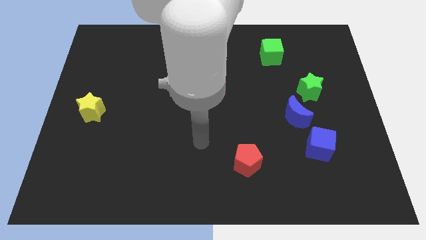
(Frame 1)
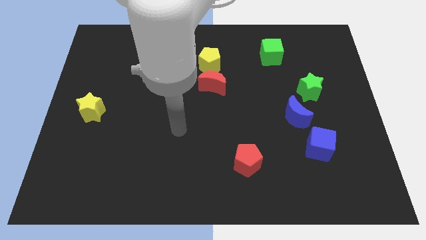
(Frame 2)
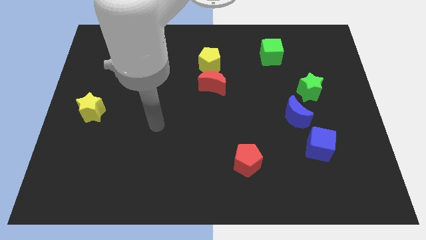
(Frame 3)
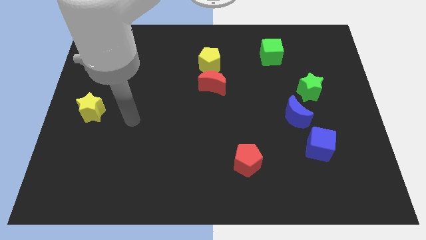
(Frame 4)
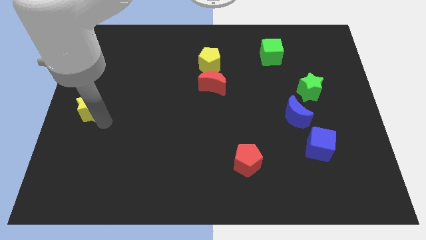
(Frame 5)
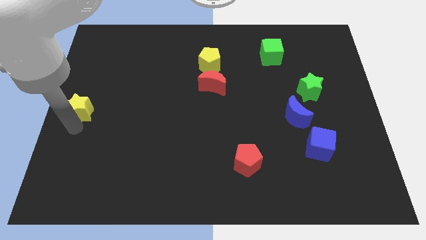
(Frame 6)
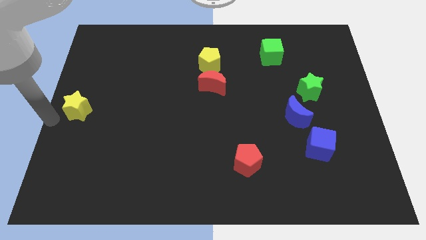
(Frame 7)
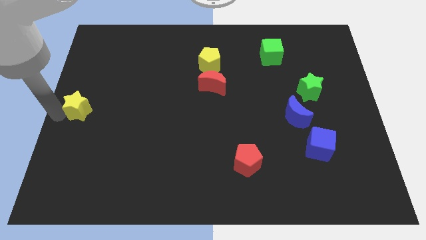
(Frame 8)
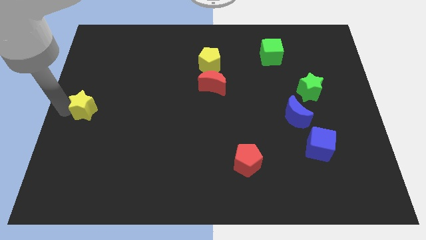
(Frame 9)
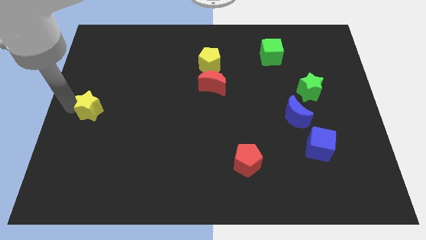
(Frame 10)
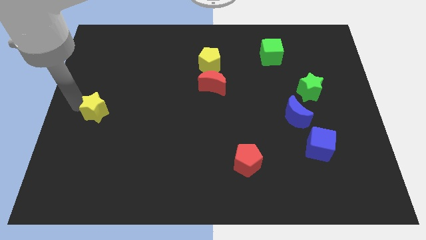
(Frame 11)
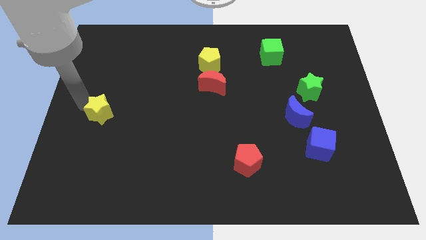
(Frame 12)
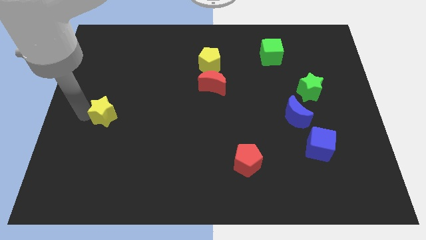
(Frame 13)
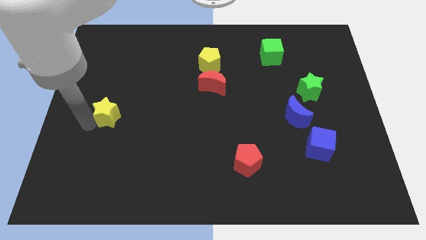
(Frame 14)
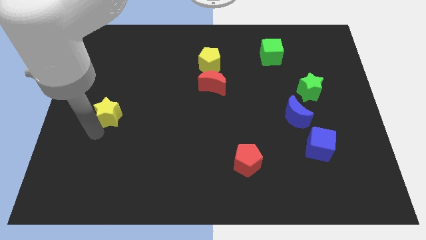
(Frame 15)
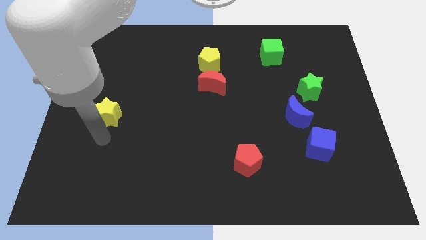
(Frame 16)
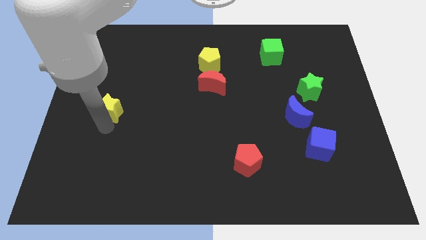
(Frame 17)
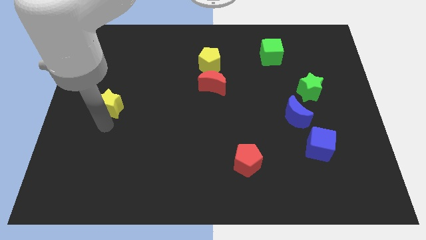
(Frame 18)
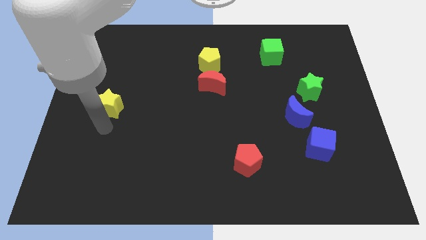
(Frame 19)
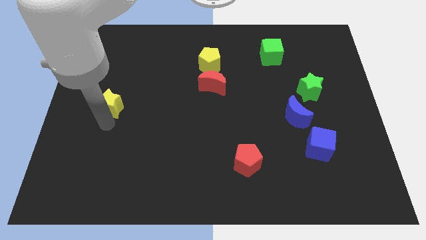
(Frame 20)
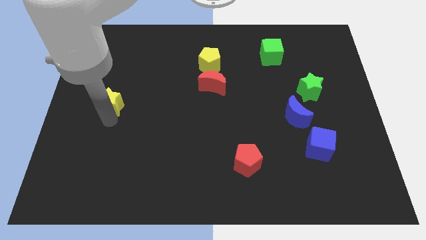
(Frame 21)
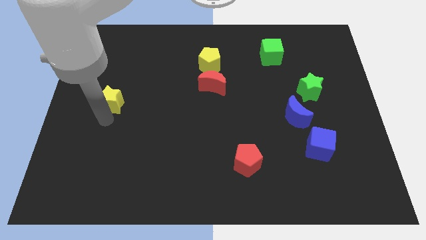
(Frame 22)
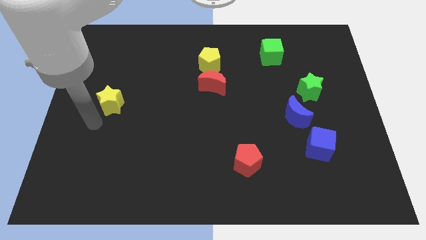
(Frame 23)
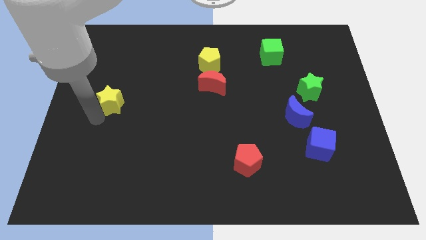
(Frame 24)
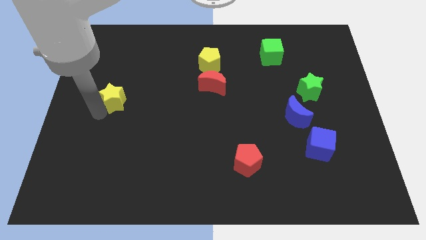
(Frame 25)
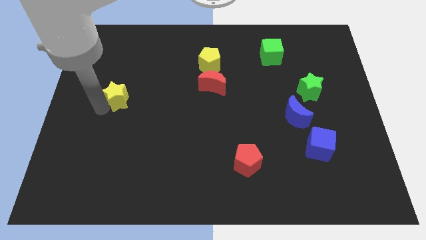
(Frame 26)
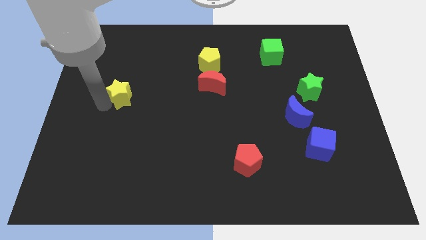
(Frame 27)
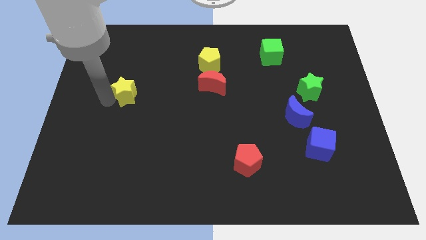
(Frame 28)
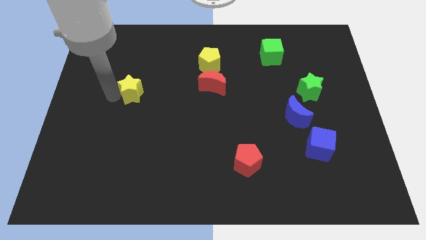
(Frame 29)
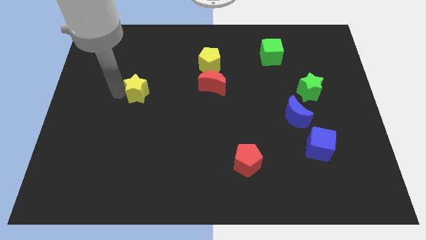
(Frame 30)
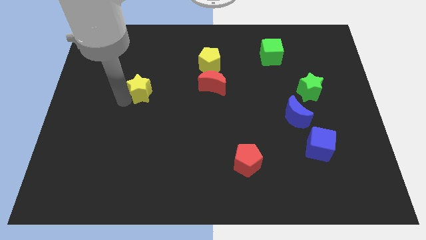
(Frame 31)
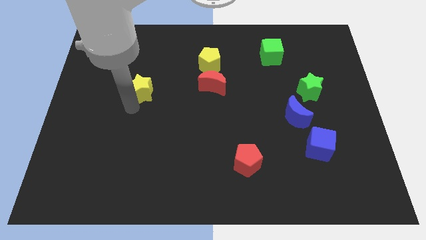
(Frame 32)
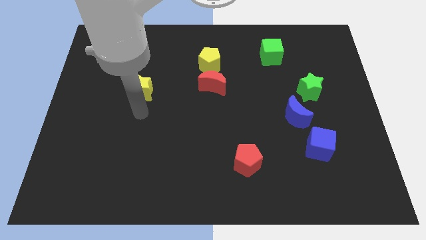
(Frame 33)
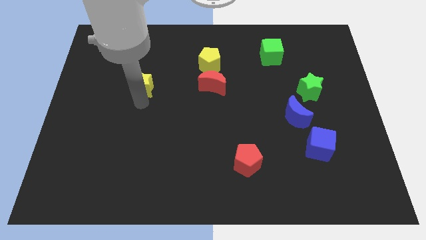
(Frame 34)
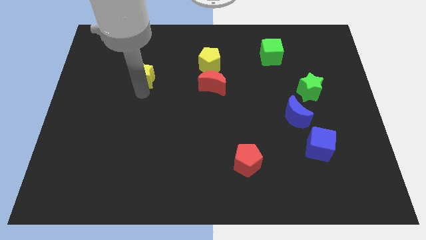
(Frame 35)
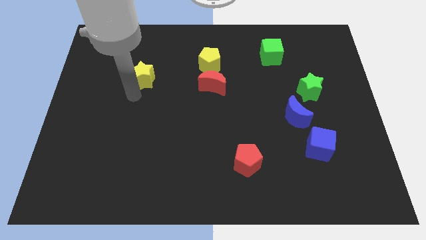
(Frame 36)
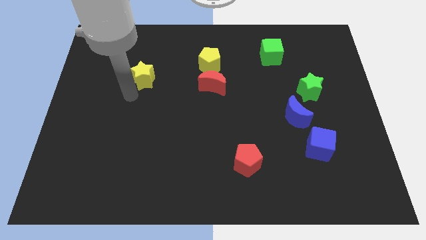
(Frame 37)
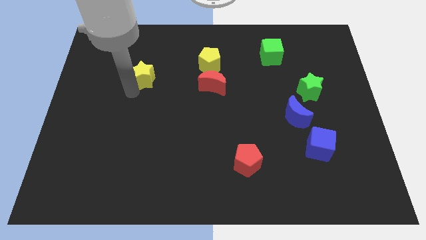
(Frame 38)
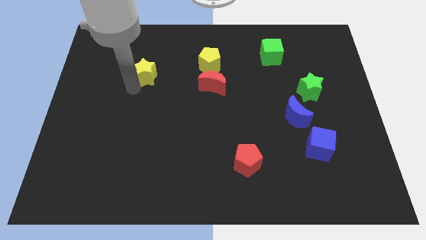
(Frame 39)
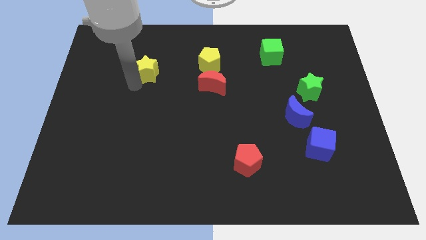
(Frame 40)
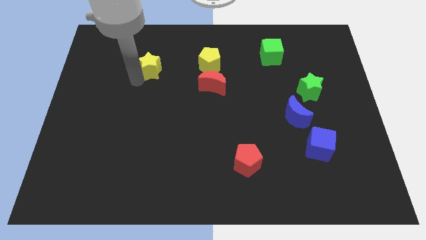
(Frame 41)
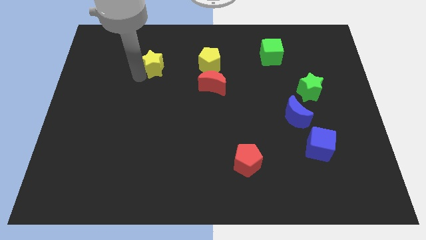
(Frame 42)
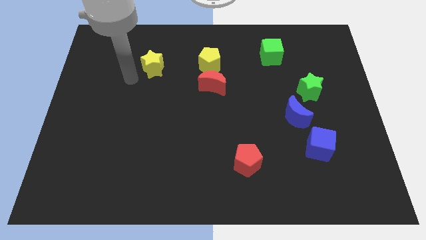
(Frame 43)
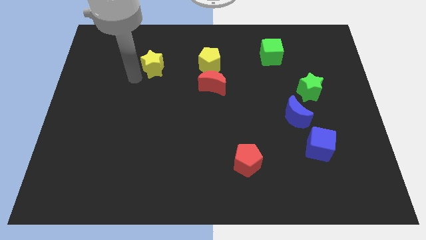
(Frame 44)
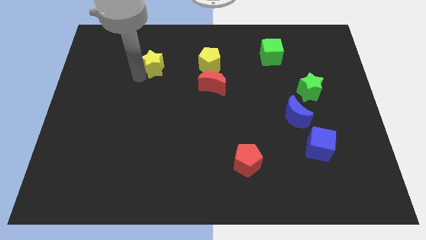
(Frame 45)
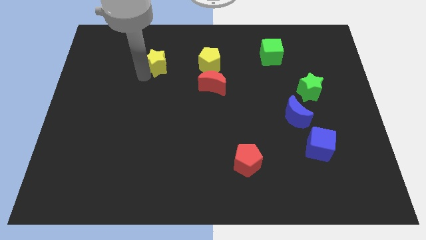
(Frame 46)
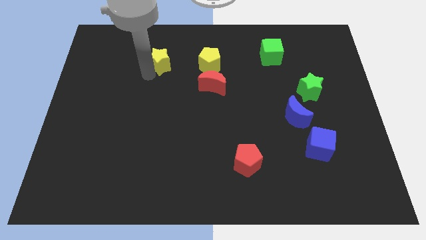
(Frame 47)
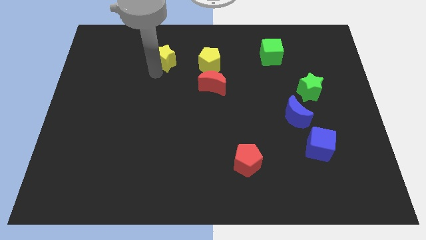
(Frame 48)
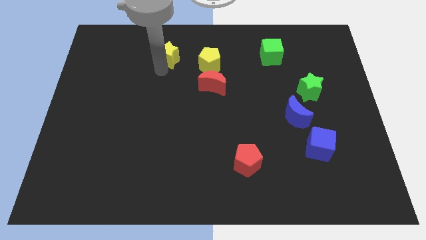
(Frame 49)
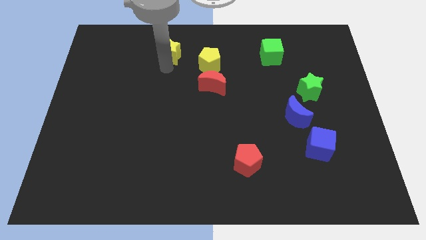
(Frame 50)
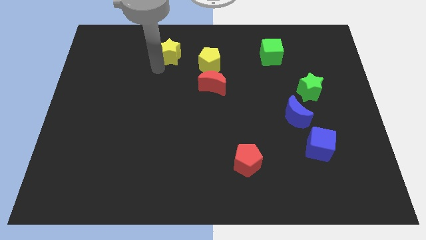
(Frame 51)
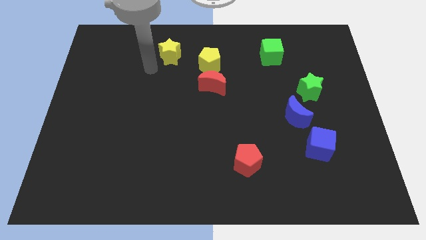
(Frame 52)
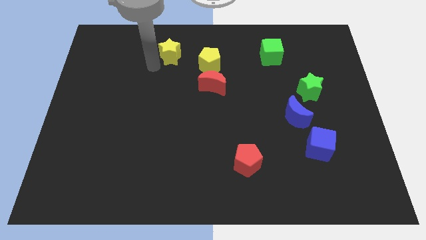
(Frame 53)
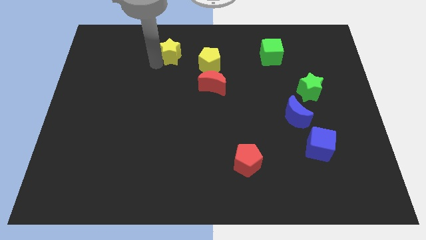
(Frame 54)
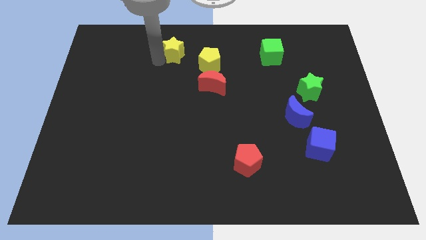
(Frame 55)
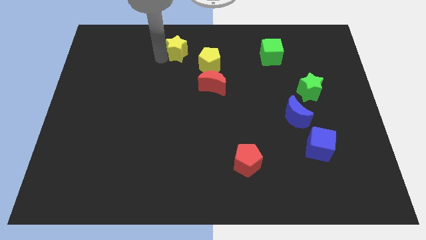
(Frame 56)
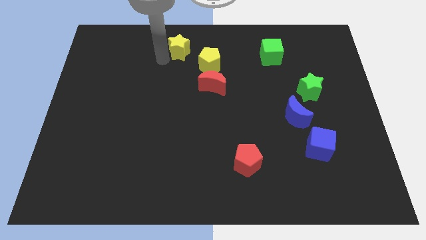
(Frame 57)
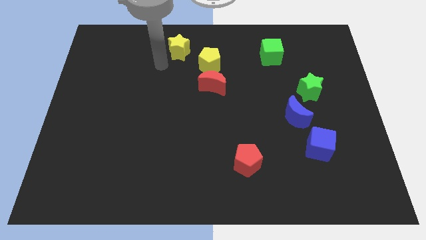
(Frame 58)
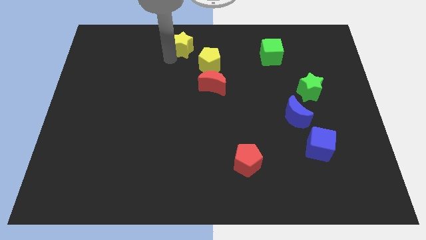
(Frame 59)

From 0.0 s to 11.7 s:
move the yellow star to the towards your base

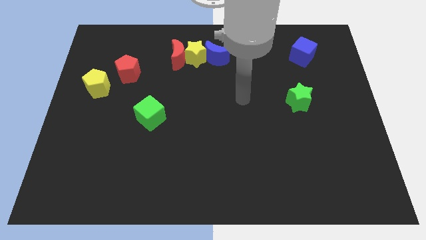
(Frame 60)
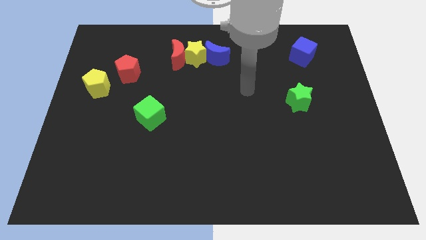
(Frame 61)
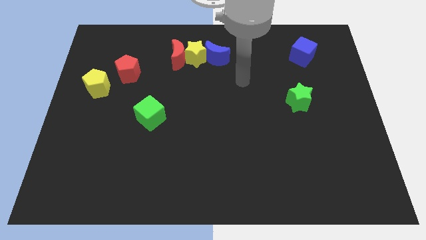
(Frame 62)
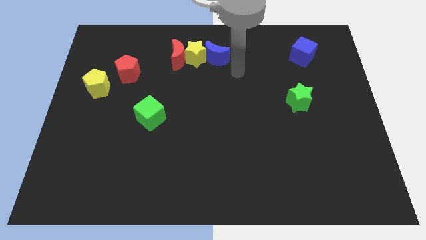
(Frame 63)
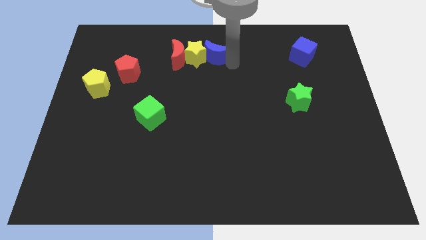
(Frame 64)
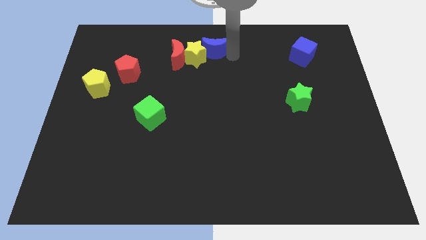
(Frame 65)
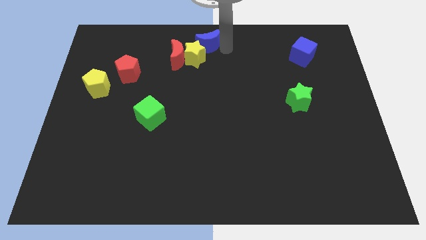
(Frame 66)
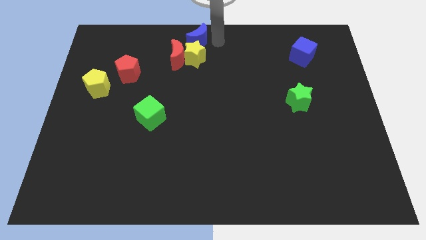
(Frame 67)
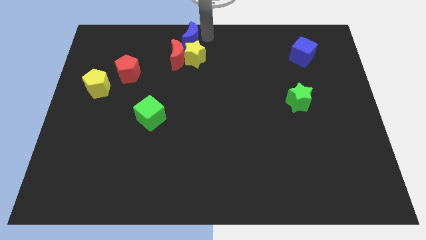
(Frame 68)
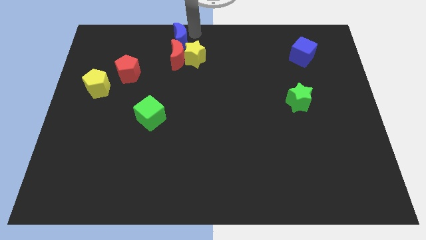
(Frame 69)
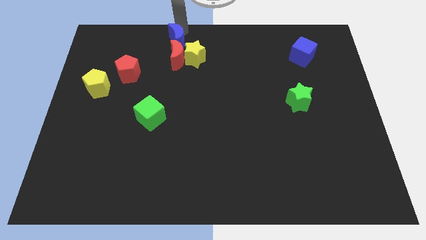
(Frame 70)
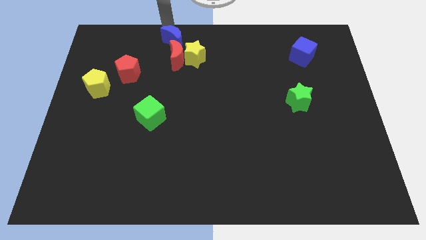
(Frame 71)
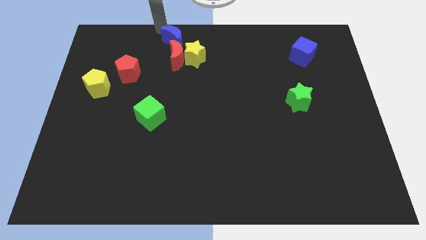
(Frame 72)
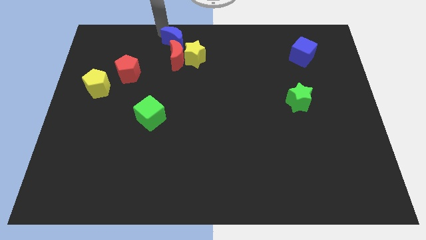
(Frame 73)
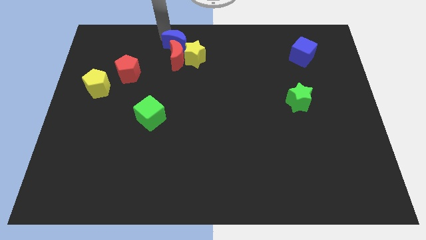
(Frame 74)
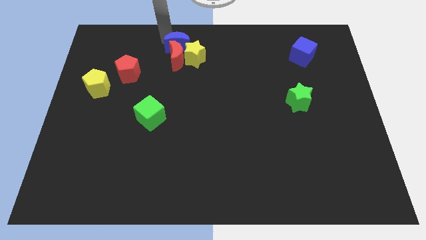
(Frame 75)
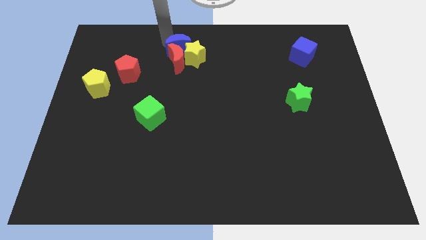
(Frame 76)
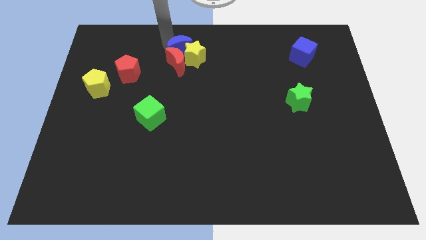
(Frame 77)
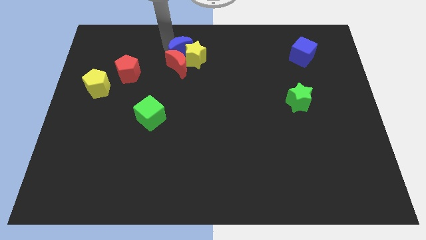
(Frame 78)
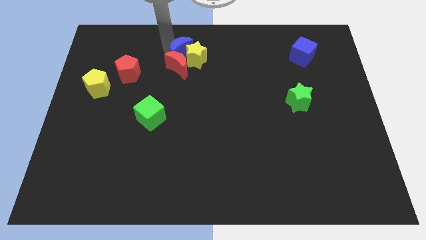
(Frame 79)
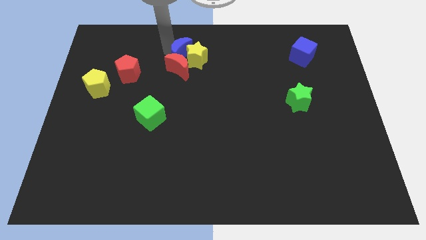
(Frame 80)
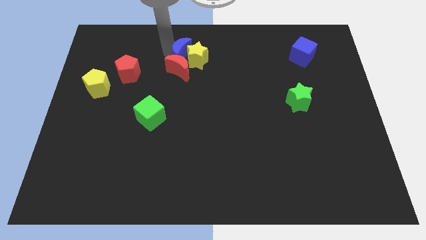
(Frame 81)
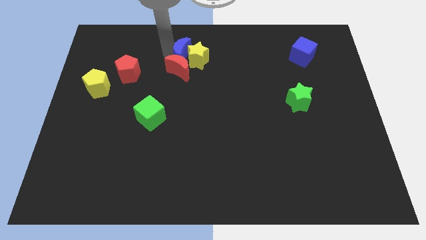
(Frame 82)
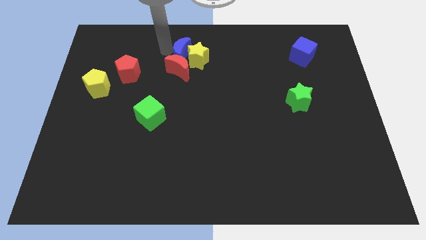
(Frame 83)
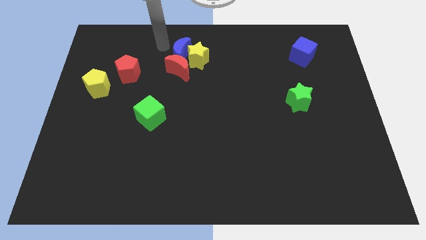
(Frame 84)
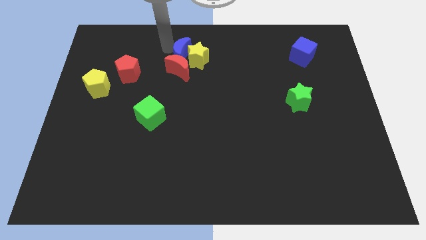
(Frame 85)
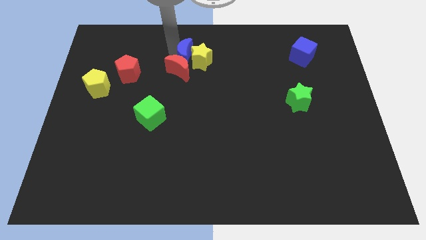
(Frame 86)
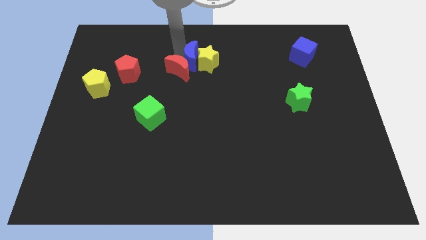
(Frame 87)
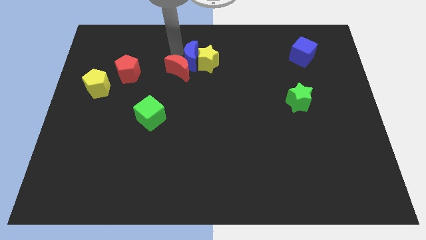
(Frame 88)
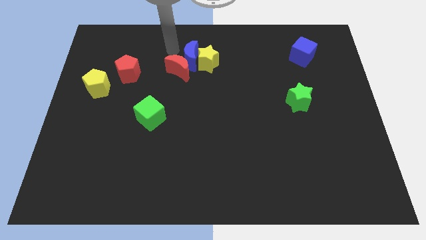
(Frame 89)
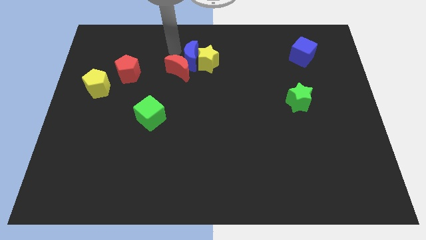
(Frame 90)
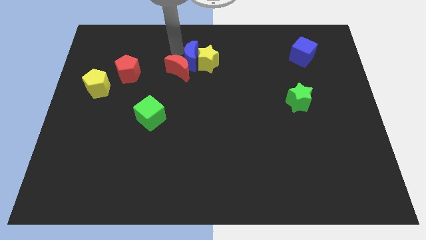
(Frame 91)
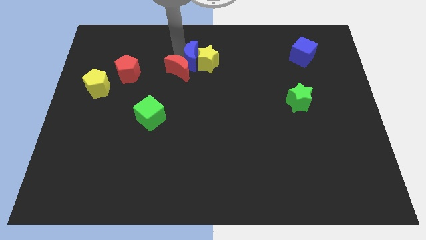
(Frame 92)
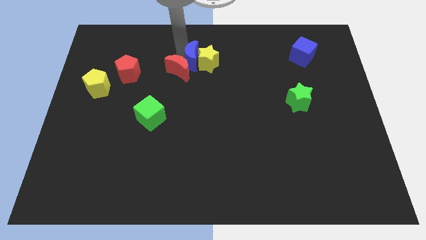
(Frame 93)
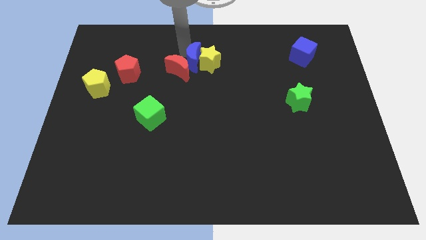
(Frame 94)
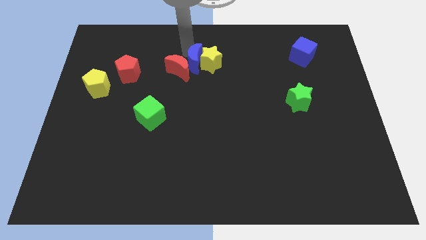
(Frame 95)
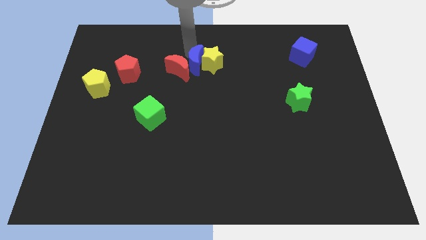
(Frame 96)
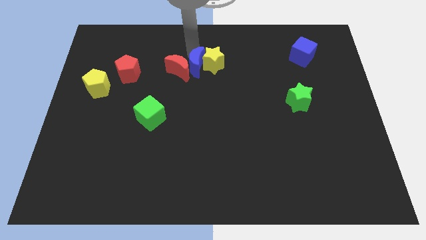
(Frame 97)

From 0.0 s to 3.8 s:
move the blue moon to the middle of the board
